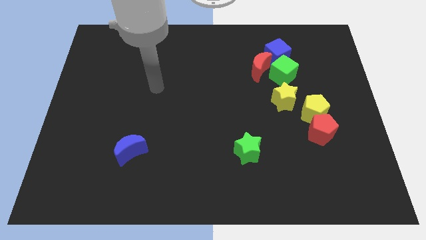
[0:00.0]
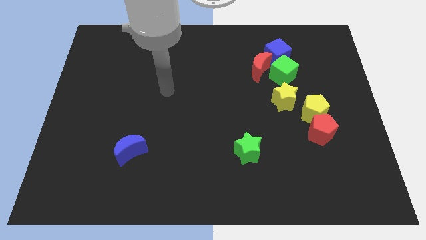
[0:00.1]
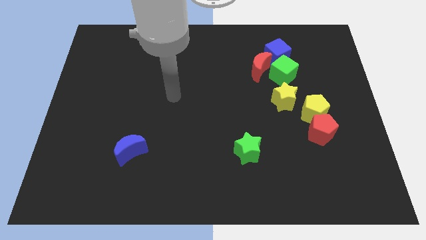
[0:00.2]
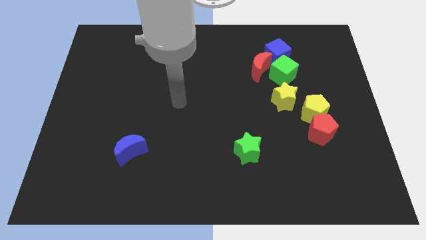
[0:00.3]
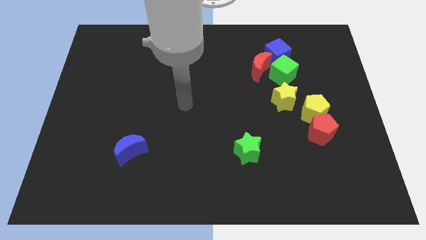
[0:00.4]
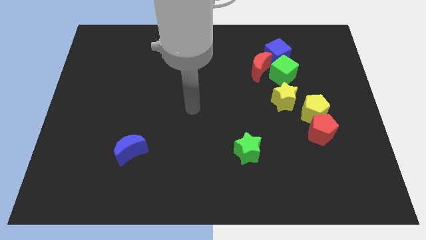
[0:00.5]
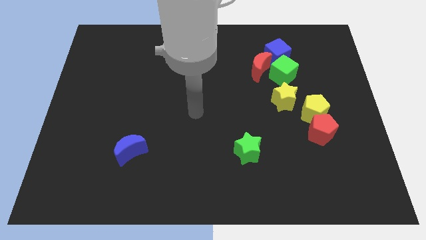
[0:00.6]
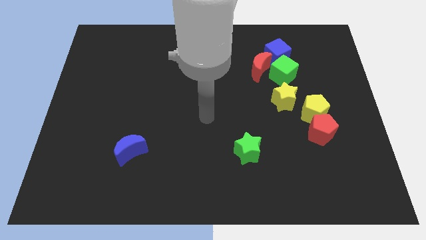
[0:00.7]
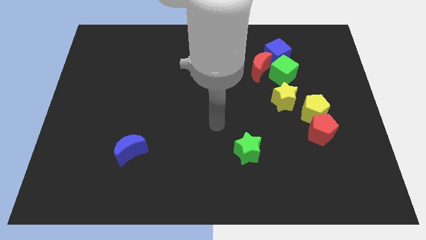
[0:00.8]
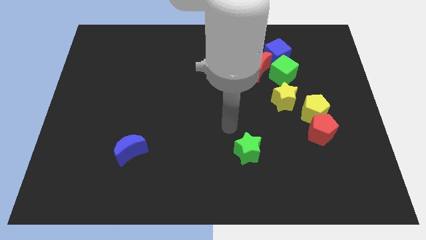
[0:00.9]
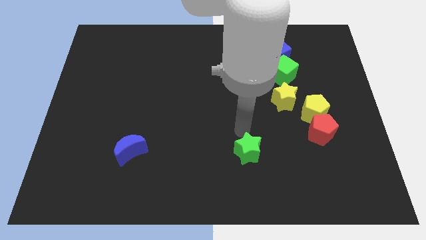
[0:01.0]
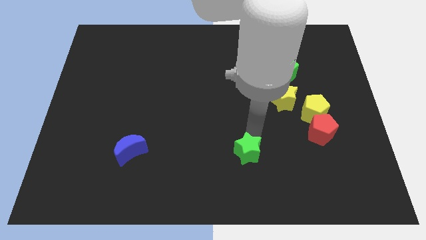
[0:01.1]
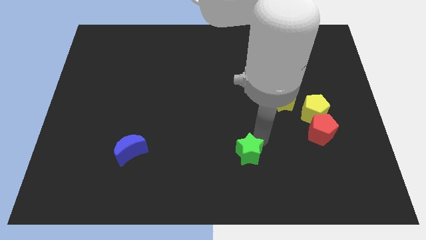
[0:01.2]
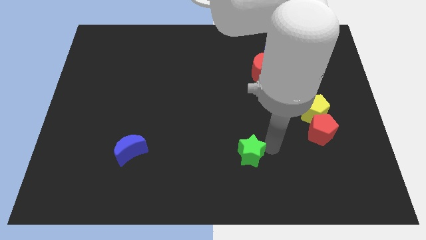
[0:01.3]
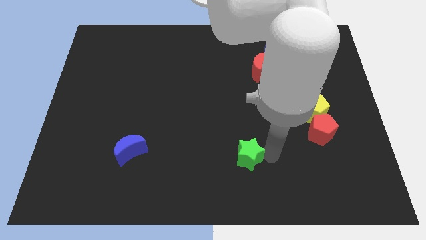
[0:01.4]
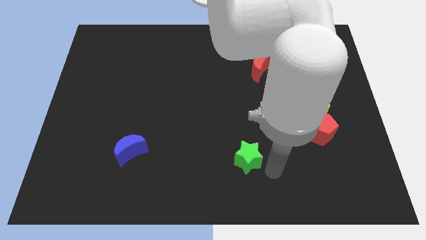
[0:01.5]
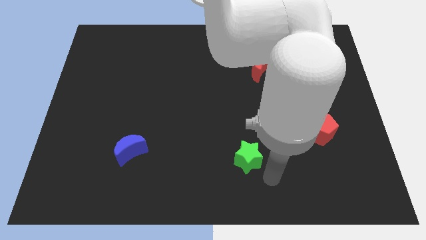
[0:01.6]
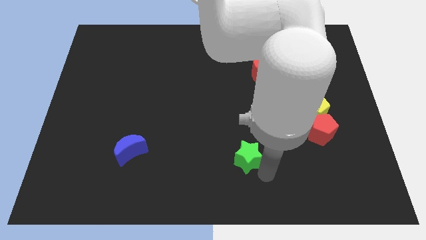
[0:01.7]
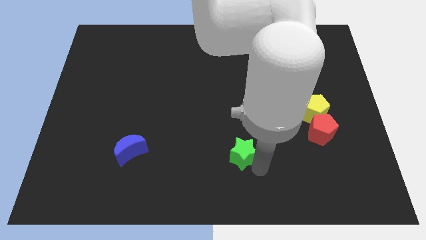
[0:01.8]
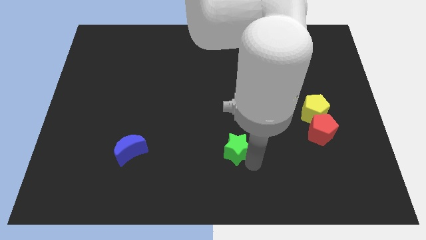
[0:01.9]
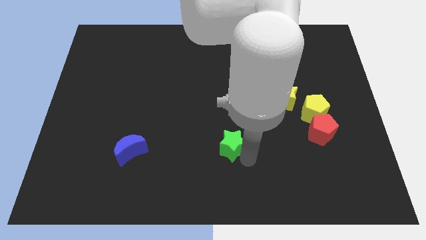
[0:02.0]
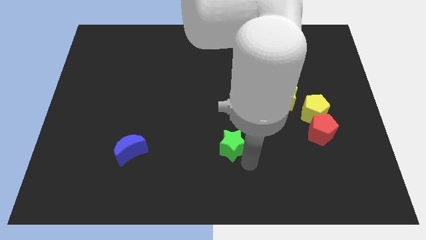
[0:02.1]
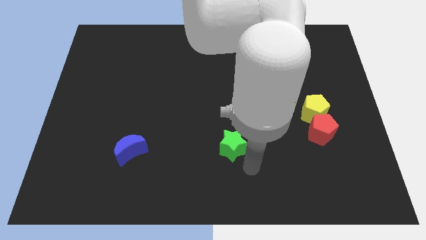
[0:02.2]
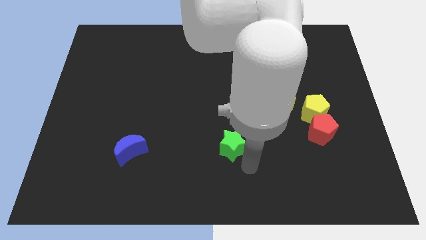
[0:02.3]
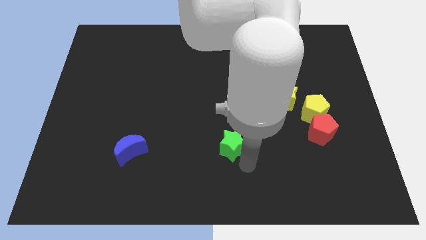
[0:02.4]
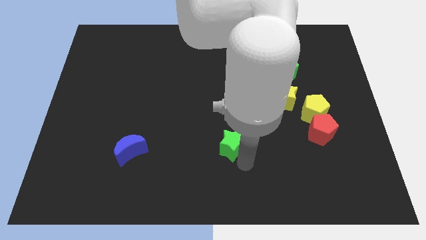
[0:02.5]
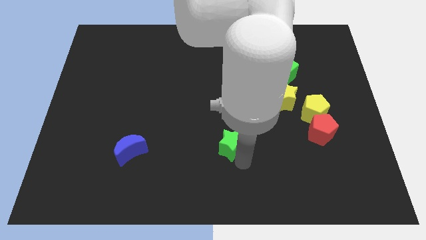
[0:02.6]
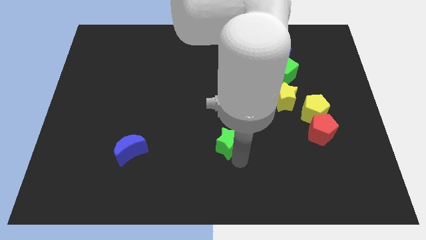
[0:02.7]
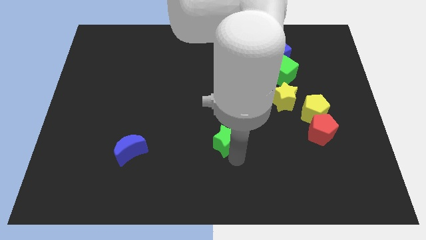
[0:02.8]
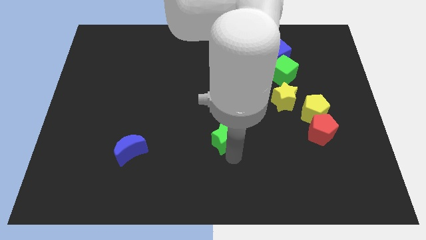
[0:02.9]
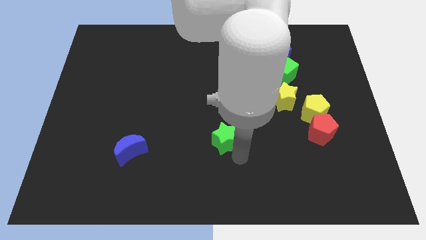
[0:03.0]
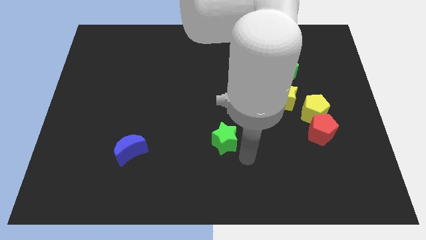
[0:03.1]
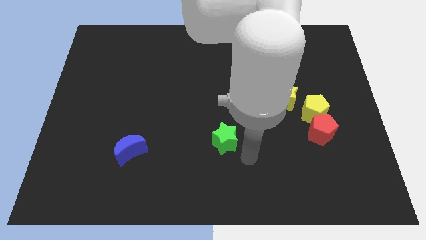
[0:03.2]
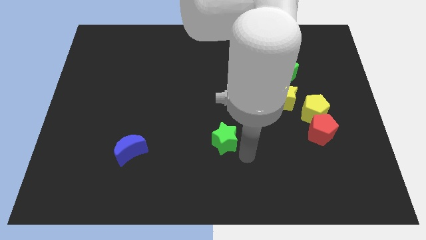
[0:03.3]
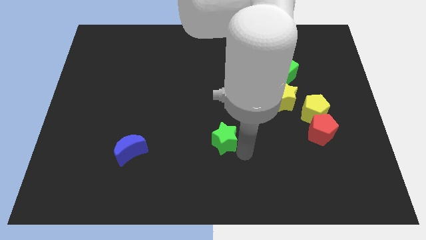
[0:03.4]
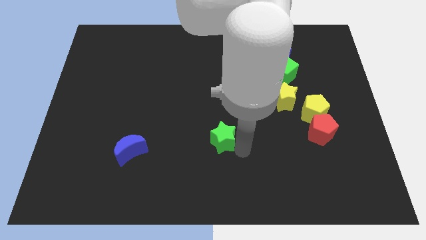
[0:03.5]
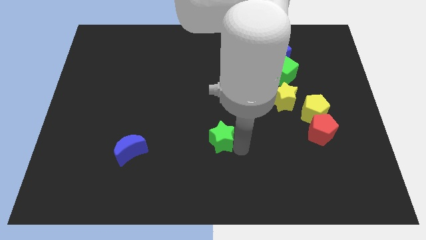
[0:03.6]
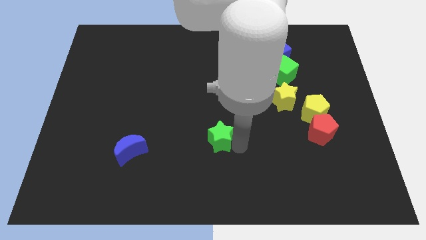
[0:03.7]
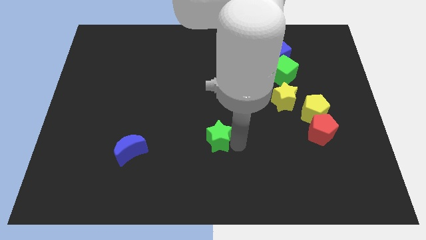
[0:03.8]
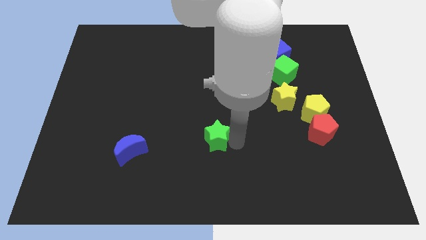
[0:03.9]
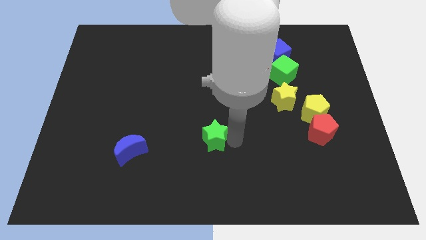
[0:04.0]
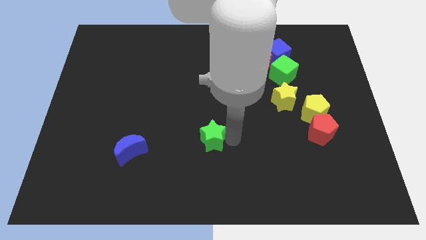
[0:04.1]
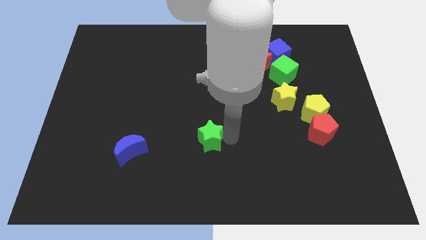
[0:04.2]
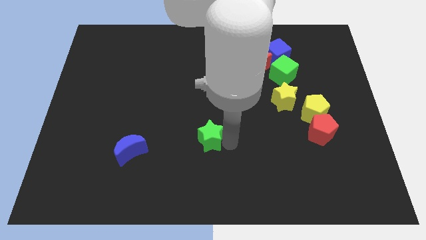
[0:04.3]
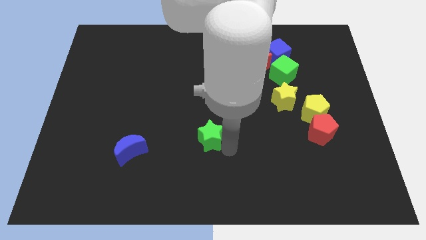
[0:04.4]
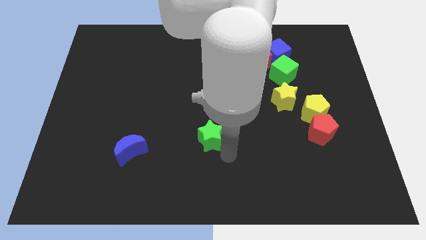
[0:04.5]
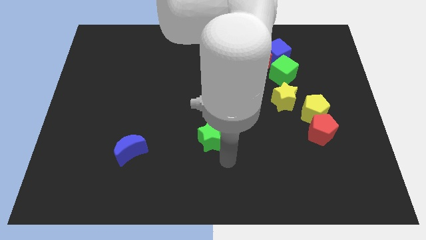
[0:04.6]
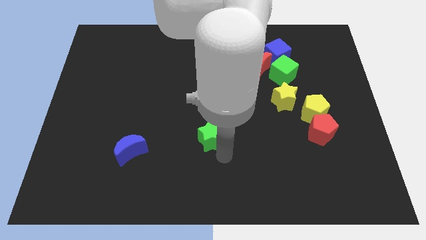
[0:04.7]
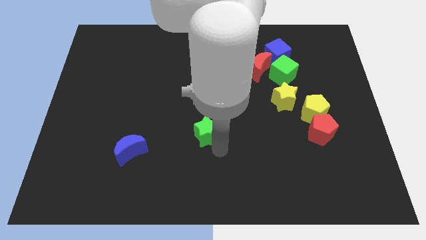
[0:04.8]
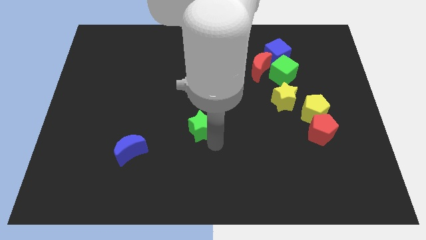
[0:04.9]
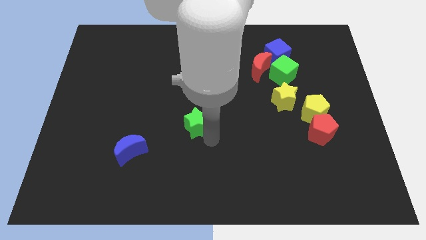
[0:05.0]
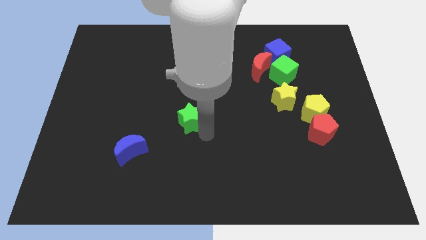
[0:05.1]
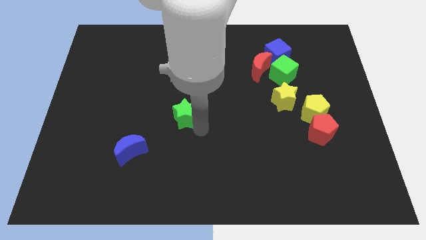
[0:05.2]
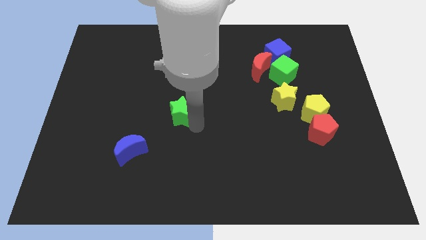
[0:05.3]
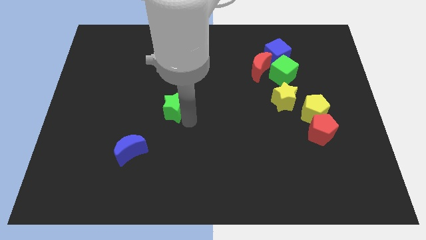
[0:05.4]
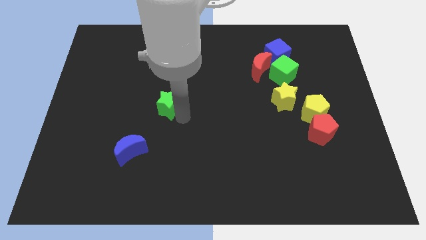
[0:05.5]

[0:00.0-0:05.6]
move the green star diagonally up and to the left

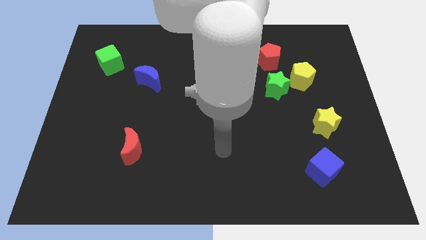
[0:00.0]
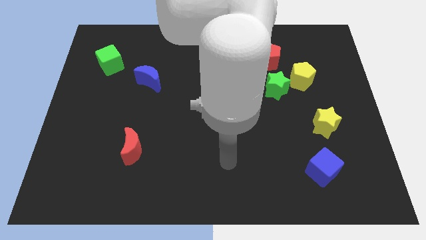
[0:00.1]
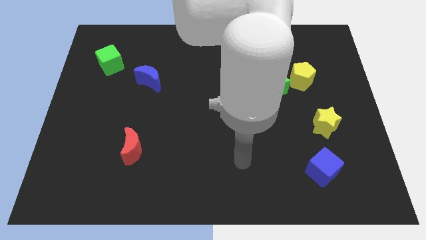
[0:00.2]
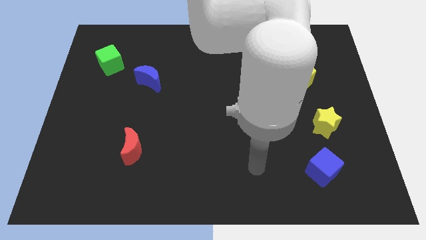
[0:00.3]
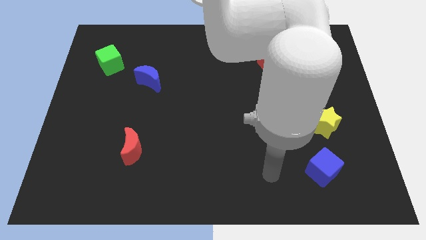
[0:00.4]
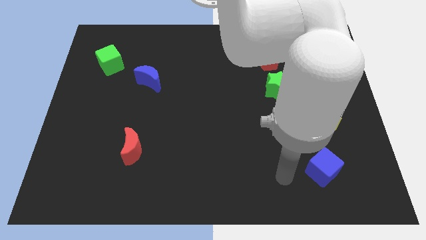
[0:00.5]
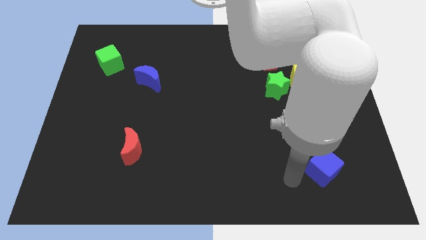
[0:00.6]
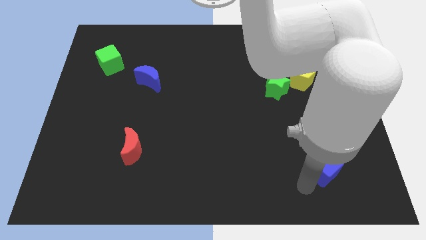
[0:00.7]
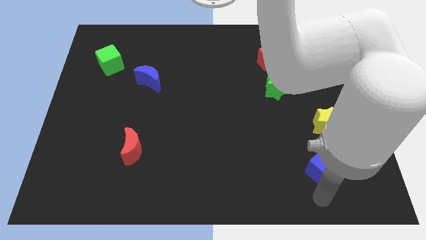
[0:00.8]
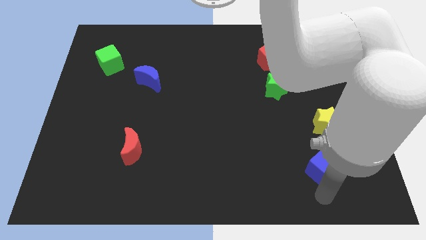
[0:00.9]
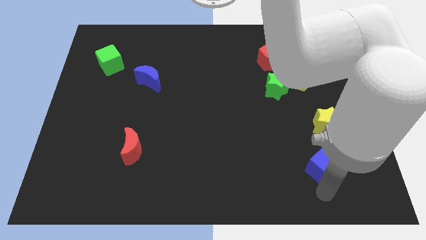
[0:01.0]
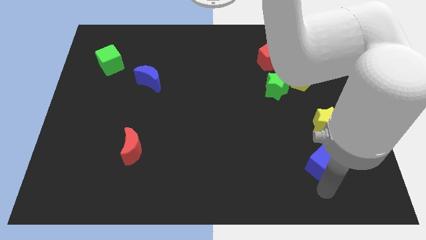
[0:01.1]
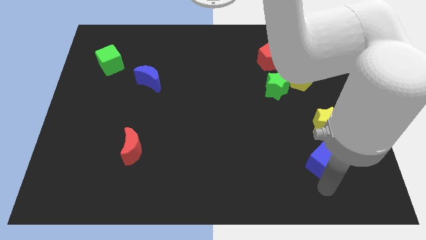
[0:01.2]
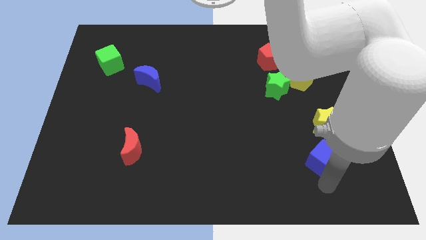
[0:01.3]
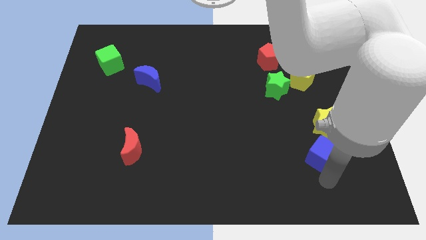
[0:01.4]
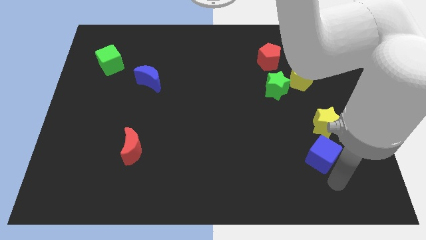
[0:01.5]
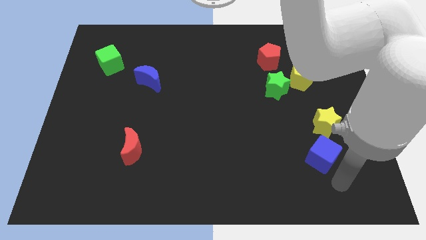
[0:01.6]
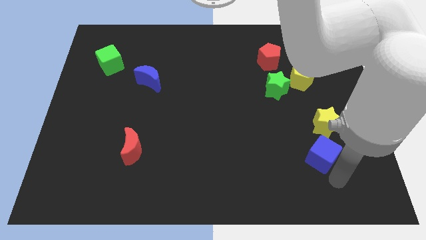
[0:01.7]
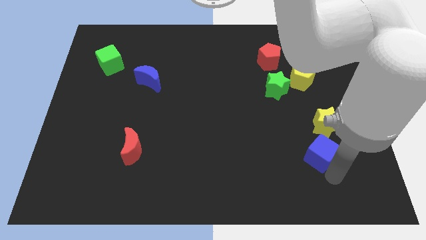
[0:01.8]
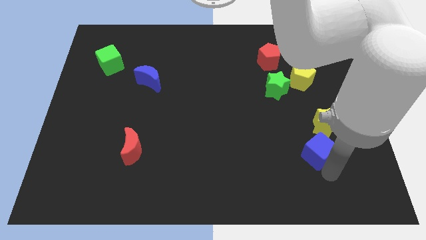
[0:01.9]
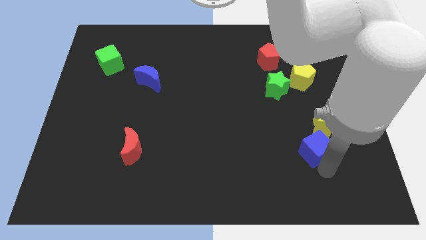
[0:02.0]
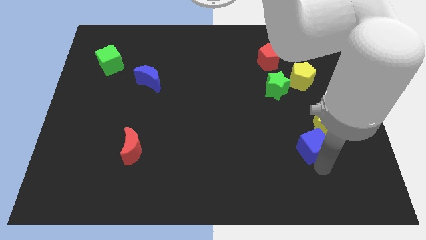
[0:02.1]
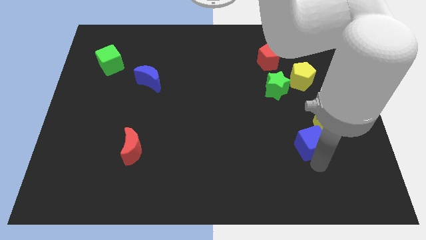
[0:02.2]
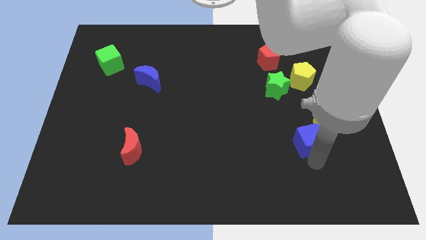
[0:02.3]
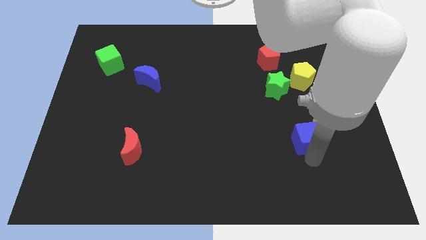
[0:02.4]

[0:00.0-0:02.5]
move the blue cube upwards a little bit
